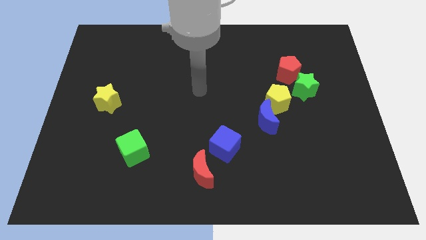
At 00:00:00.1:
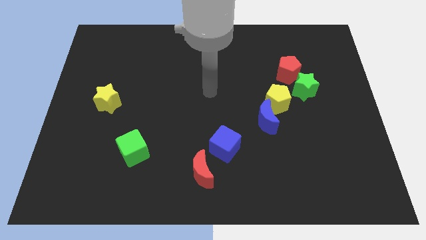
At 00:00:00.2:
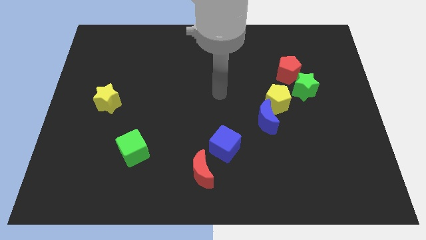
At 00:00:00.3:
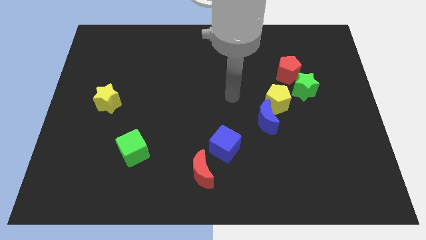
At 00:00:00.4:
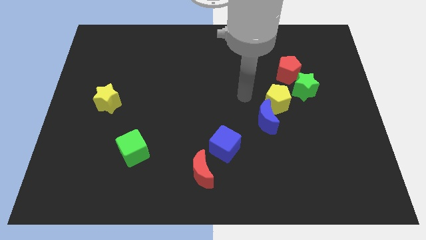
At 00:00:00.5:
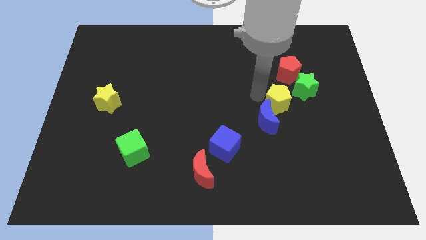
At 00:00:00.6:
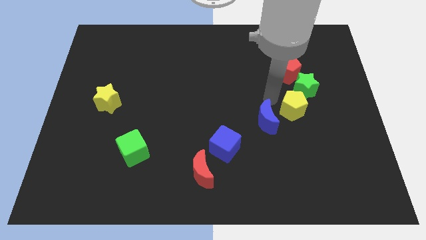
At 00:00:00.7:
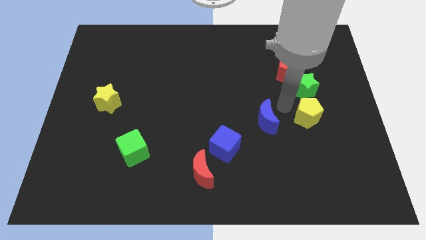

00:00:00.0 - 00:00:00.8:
pull the blue moon apart from the yellow pentagon

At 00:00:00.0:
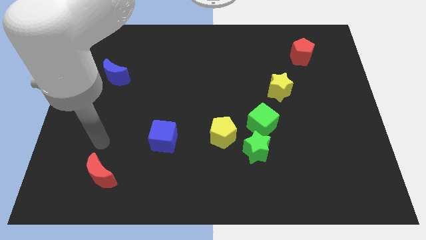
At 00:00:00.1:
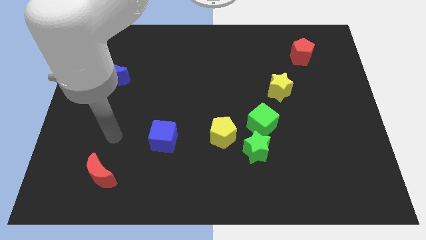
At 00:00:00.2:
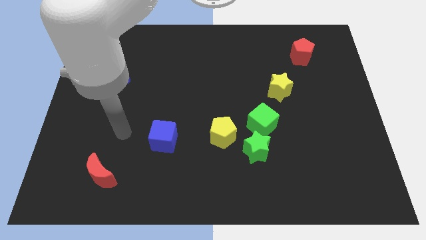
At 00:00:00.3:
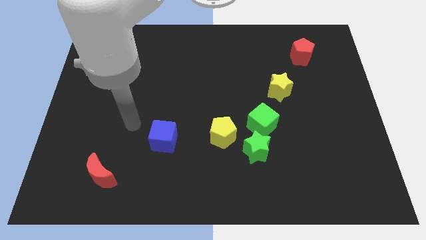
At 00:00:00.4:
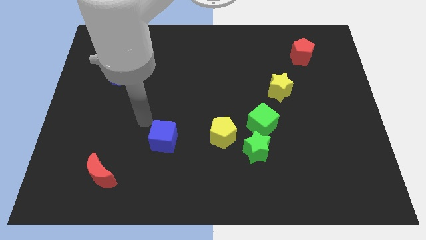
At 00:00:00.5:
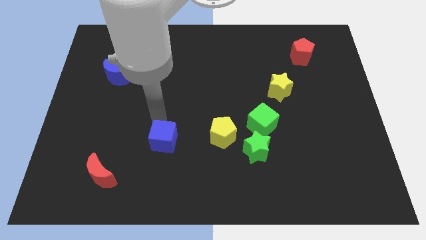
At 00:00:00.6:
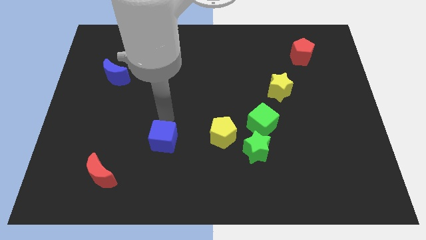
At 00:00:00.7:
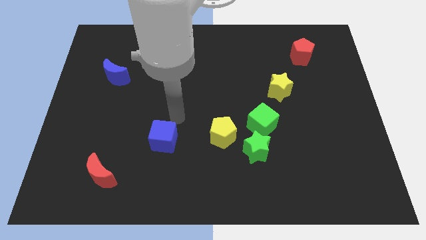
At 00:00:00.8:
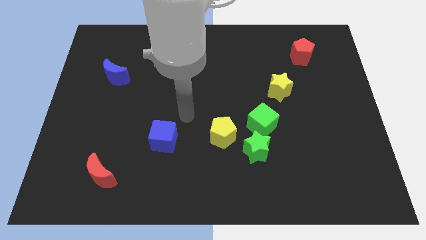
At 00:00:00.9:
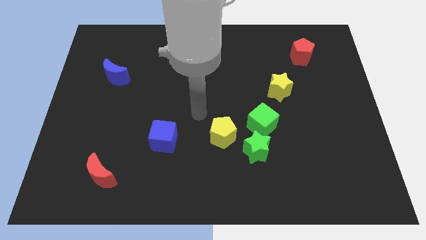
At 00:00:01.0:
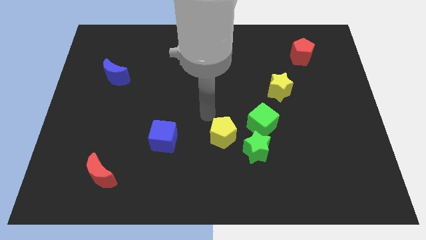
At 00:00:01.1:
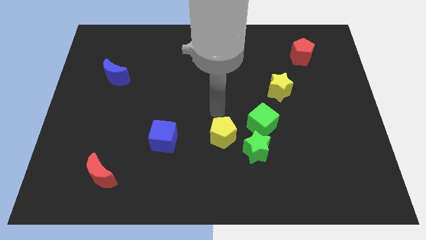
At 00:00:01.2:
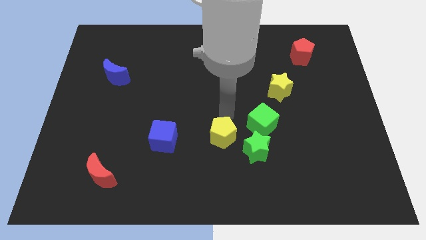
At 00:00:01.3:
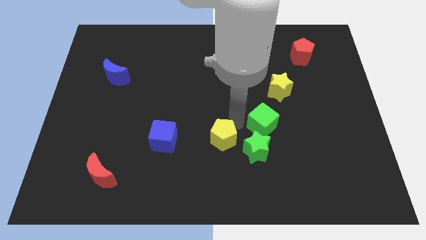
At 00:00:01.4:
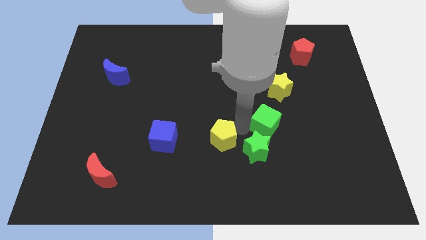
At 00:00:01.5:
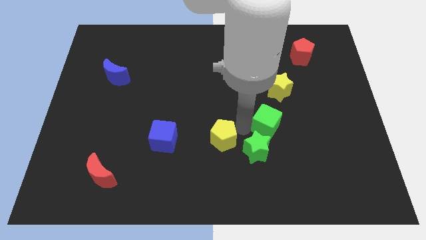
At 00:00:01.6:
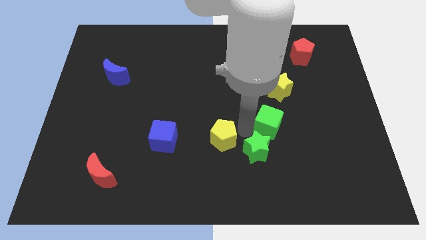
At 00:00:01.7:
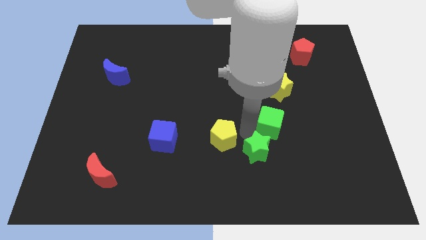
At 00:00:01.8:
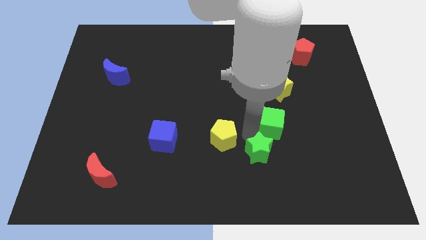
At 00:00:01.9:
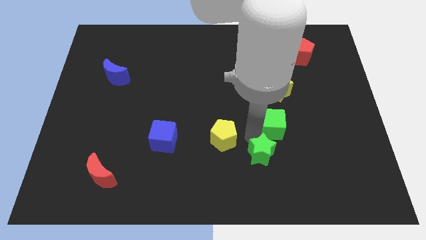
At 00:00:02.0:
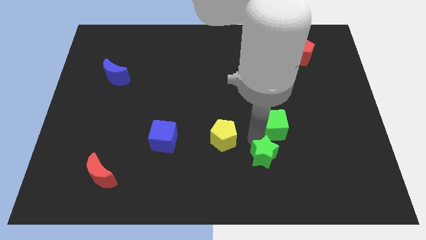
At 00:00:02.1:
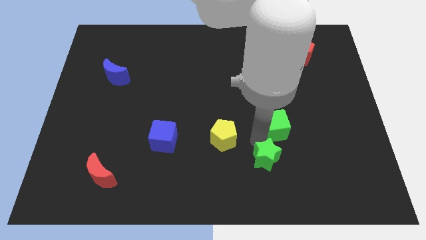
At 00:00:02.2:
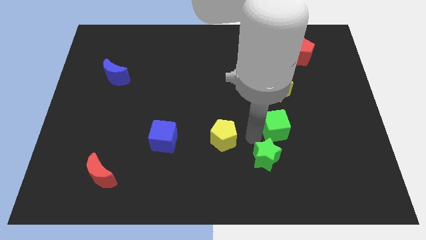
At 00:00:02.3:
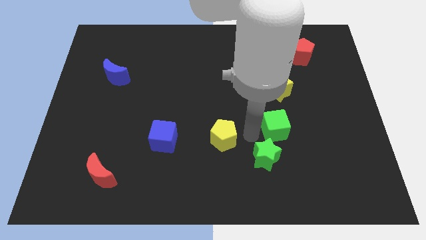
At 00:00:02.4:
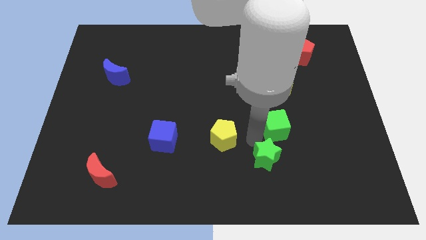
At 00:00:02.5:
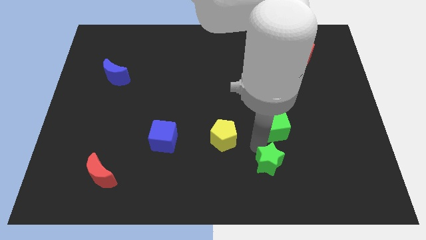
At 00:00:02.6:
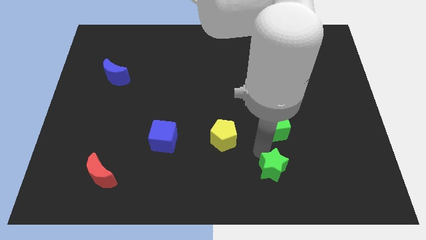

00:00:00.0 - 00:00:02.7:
move the green star away from the green cube and yellow pentagon

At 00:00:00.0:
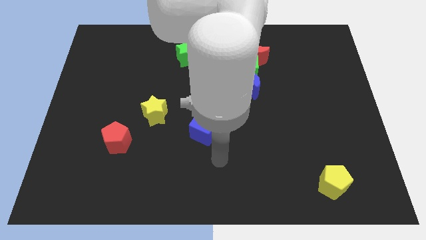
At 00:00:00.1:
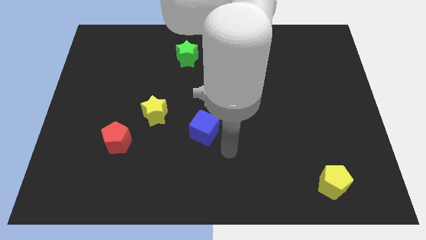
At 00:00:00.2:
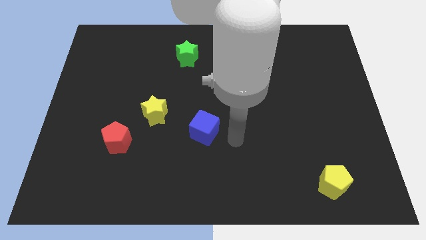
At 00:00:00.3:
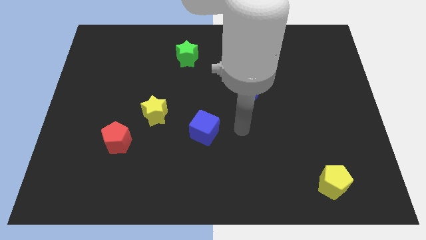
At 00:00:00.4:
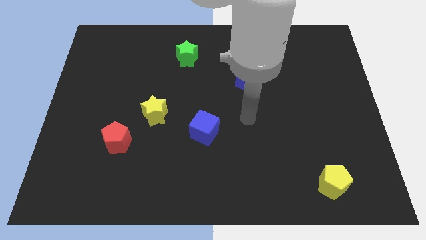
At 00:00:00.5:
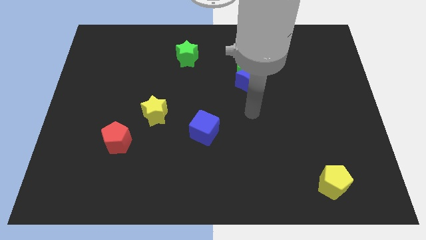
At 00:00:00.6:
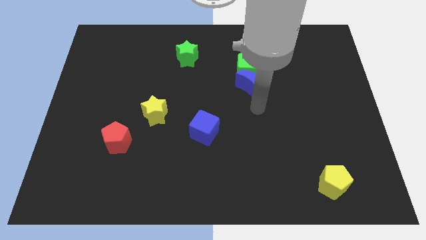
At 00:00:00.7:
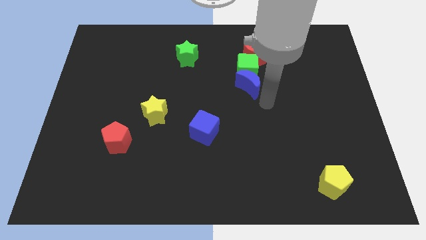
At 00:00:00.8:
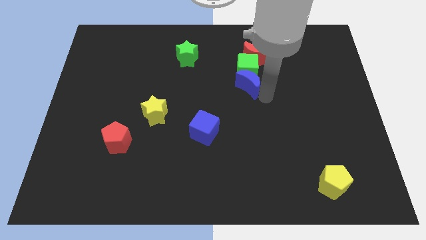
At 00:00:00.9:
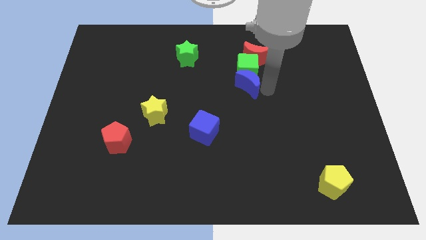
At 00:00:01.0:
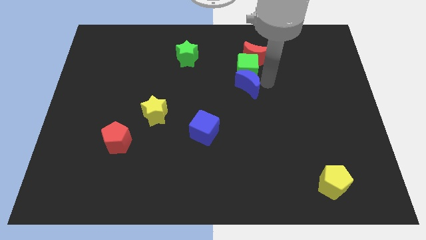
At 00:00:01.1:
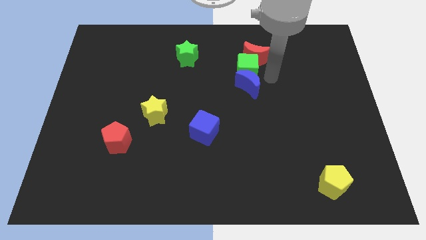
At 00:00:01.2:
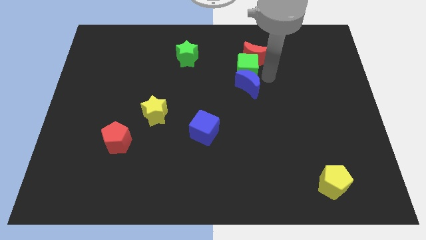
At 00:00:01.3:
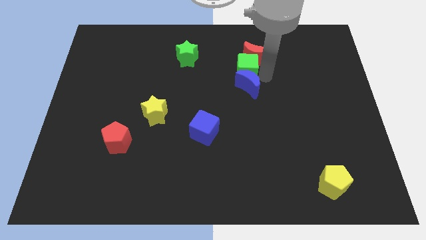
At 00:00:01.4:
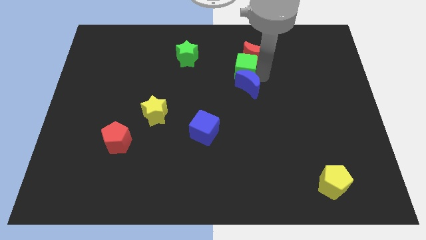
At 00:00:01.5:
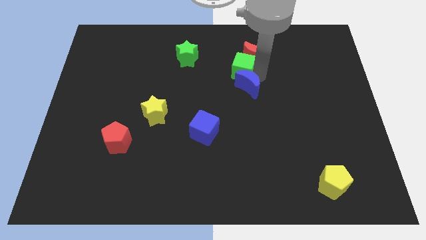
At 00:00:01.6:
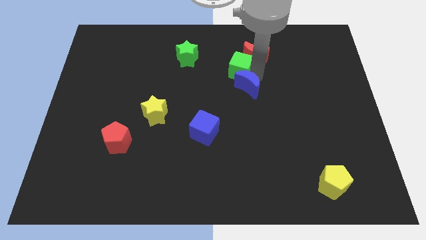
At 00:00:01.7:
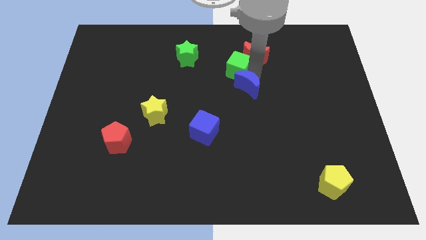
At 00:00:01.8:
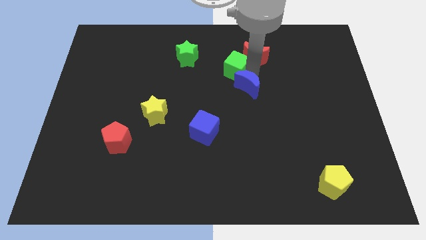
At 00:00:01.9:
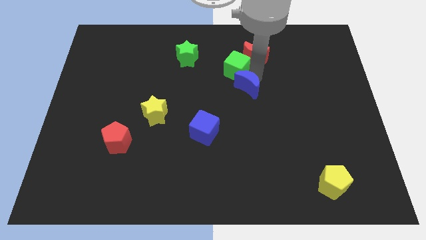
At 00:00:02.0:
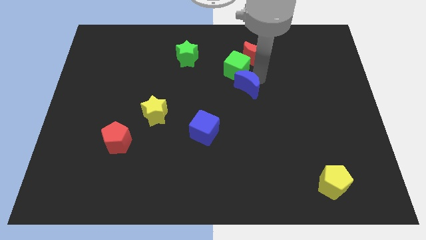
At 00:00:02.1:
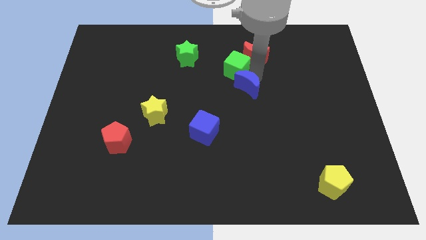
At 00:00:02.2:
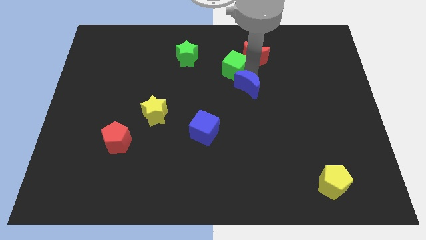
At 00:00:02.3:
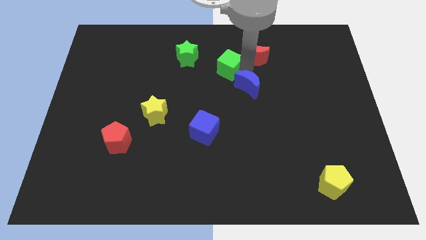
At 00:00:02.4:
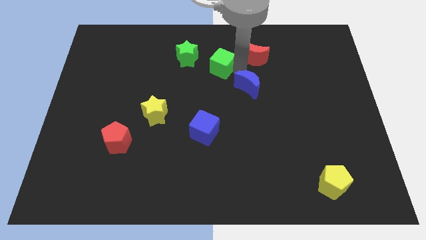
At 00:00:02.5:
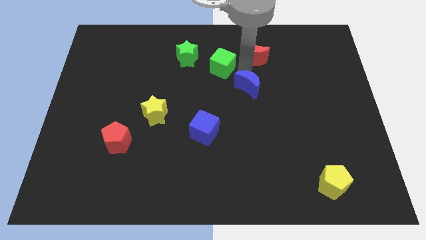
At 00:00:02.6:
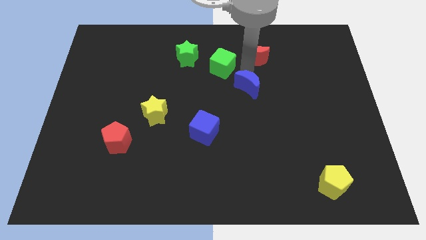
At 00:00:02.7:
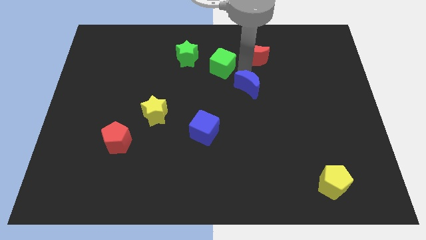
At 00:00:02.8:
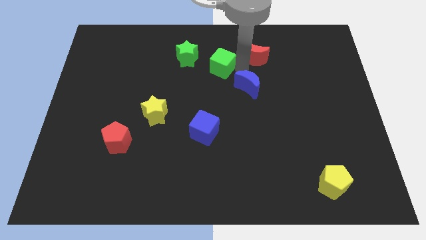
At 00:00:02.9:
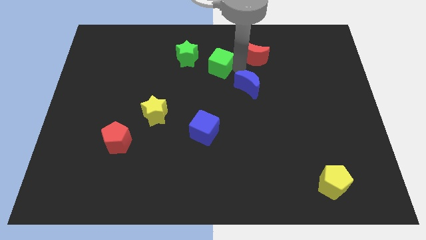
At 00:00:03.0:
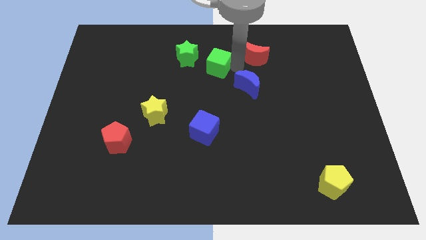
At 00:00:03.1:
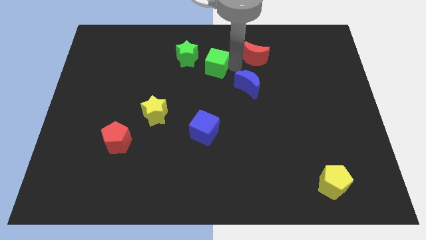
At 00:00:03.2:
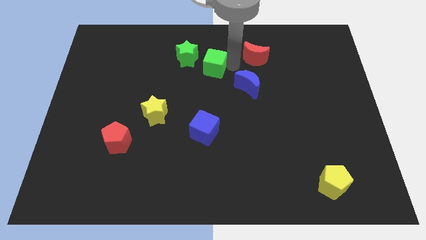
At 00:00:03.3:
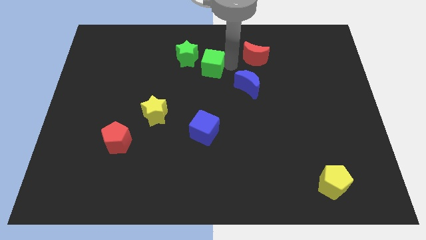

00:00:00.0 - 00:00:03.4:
separate the green cube from the red moon and blue moon

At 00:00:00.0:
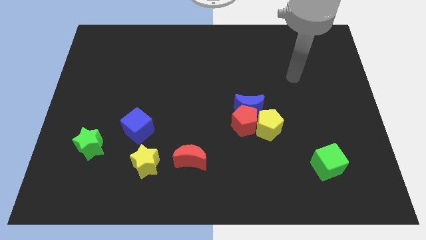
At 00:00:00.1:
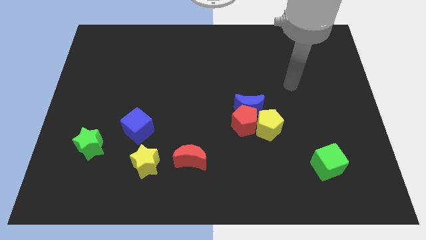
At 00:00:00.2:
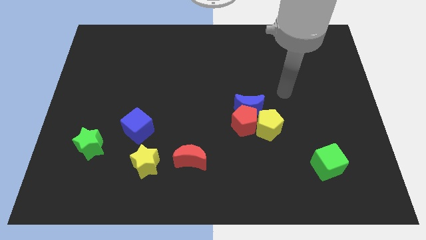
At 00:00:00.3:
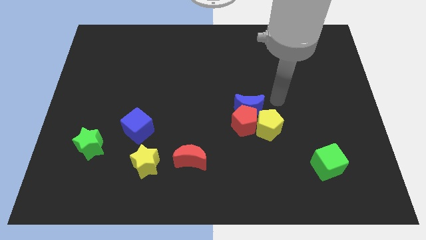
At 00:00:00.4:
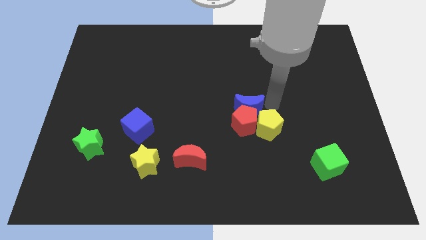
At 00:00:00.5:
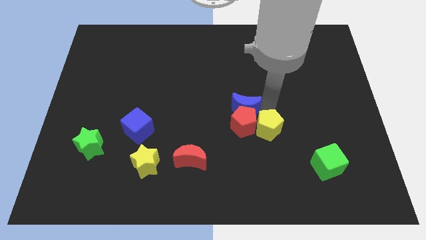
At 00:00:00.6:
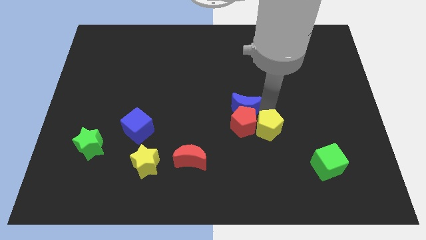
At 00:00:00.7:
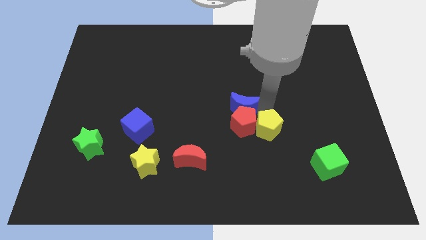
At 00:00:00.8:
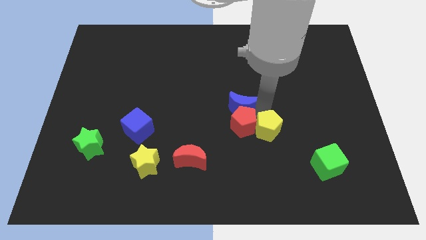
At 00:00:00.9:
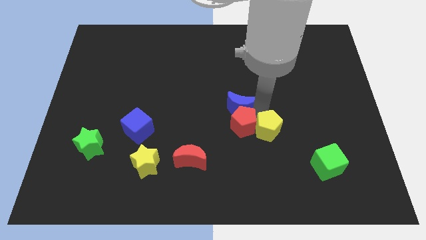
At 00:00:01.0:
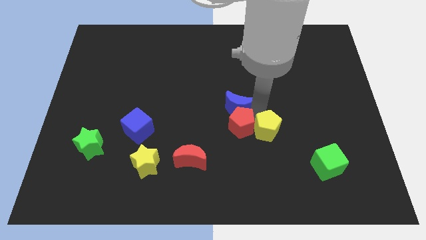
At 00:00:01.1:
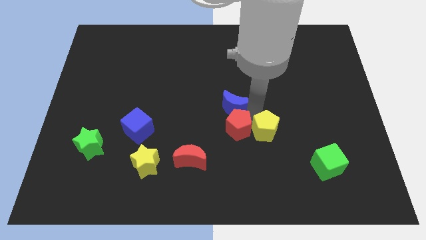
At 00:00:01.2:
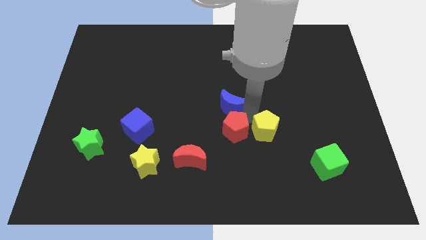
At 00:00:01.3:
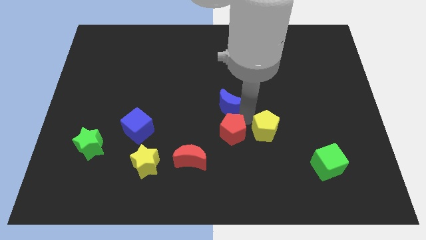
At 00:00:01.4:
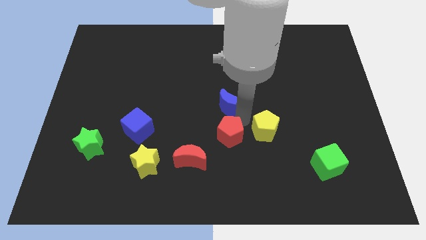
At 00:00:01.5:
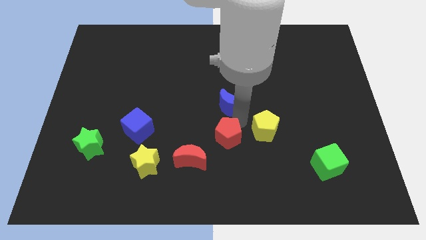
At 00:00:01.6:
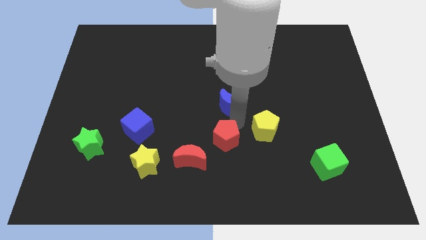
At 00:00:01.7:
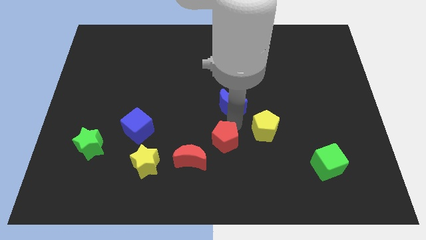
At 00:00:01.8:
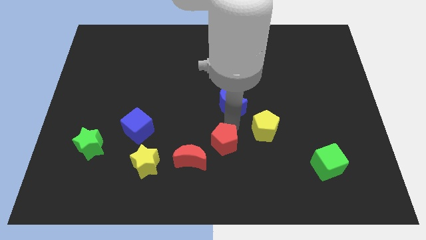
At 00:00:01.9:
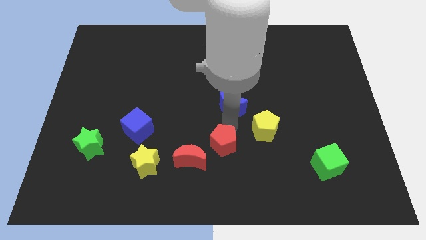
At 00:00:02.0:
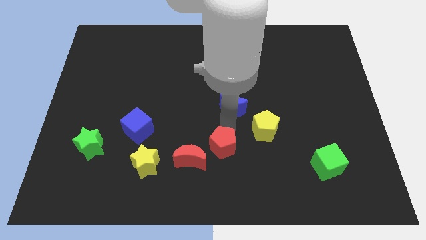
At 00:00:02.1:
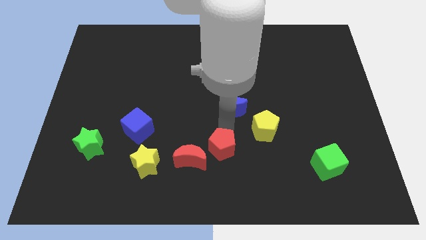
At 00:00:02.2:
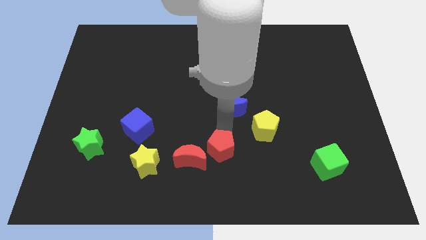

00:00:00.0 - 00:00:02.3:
separate the red pentagon from the blue moon and yellow pentagon
